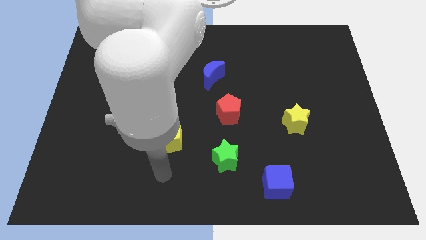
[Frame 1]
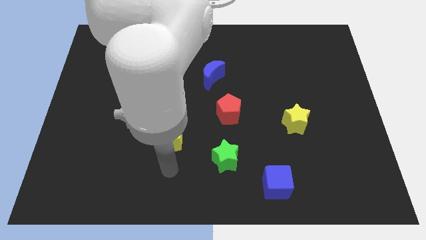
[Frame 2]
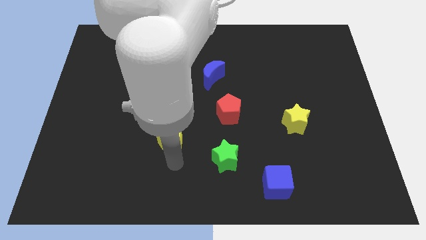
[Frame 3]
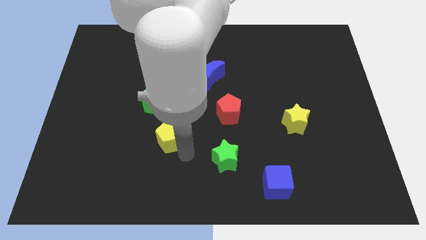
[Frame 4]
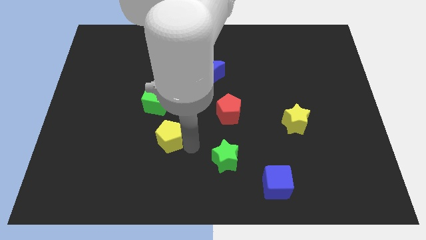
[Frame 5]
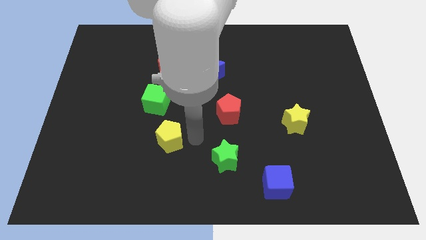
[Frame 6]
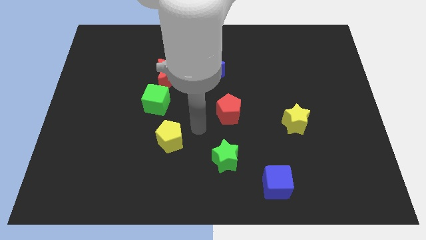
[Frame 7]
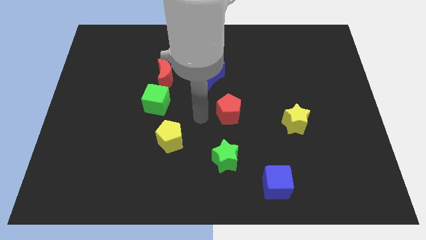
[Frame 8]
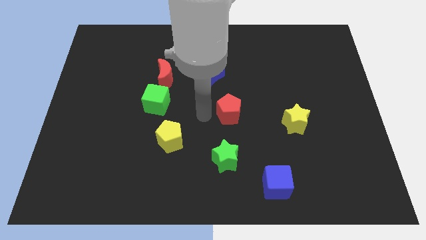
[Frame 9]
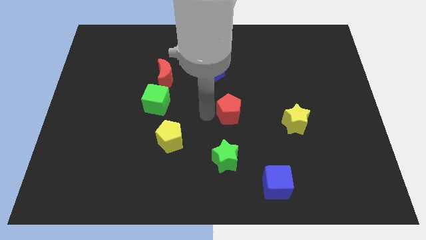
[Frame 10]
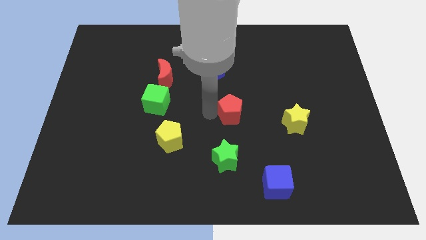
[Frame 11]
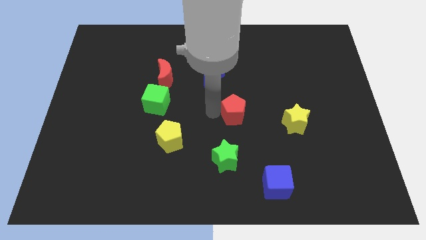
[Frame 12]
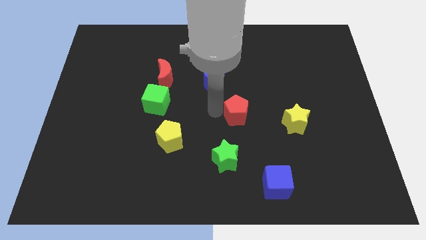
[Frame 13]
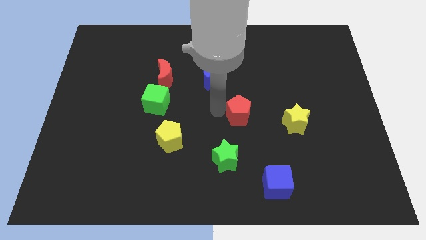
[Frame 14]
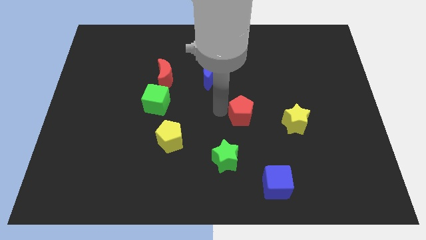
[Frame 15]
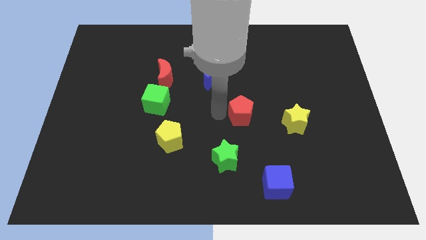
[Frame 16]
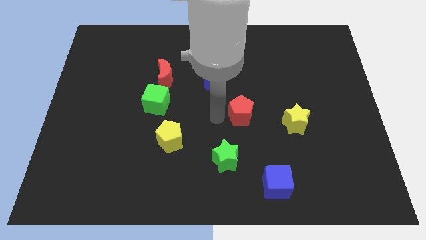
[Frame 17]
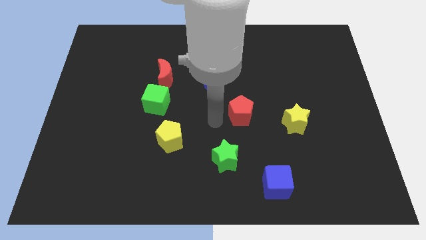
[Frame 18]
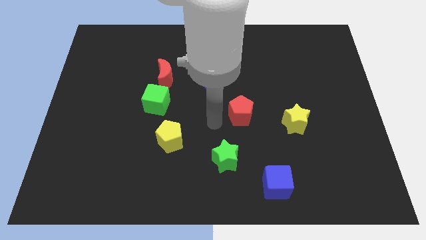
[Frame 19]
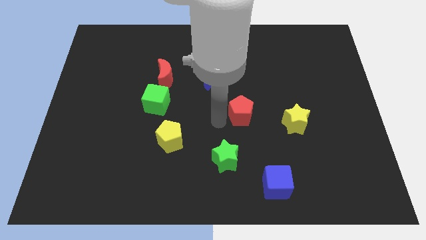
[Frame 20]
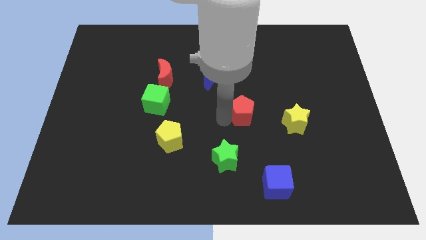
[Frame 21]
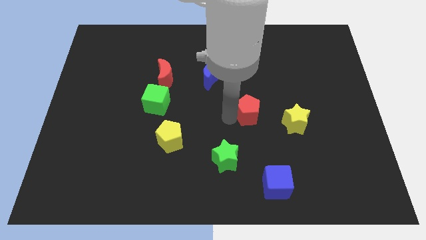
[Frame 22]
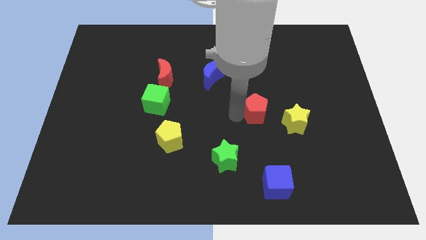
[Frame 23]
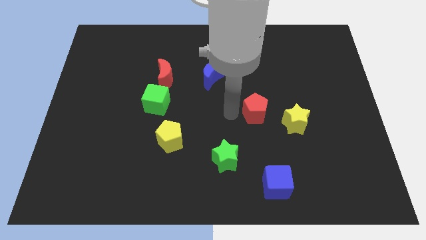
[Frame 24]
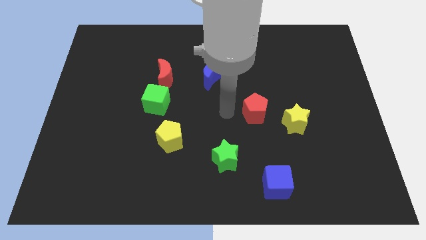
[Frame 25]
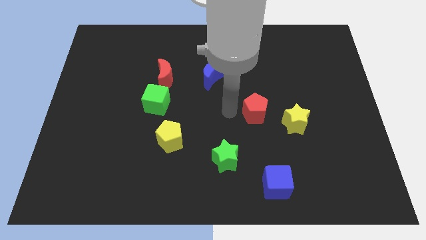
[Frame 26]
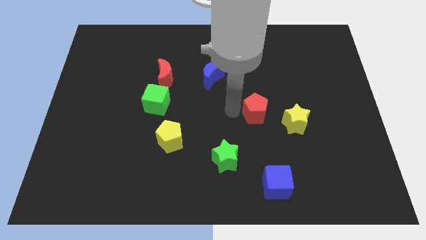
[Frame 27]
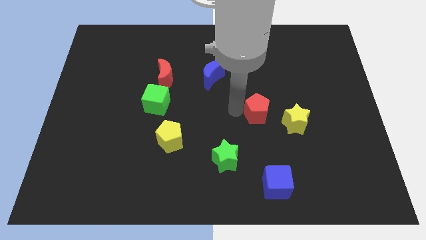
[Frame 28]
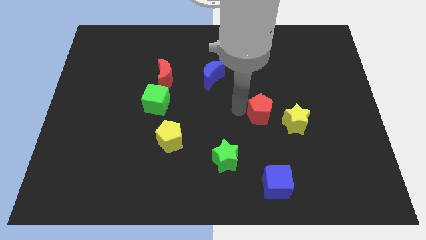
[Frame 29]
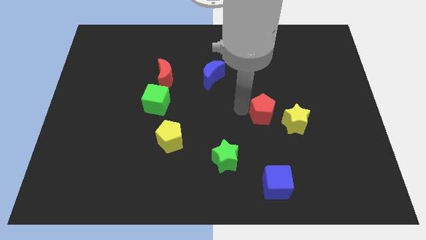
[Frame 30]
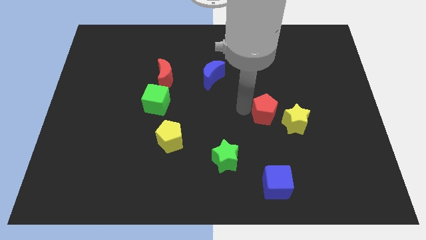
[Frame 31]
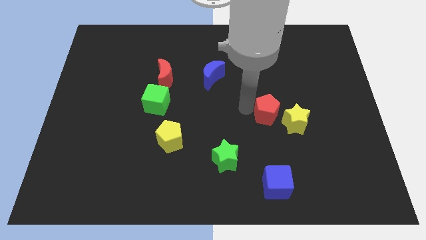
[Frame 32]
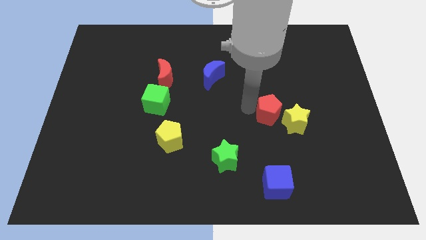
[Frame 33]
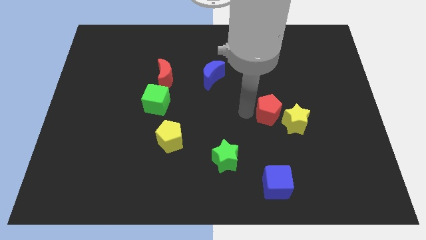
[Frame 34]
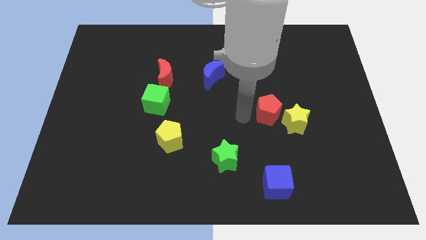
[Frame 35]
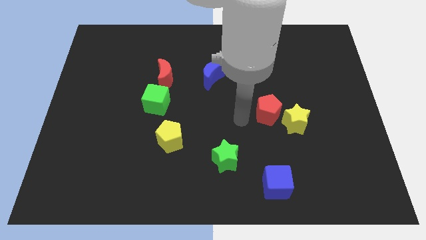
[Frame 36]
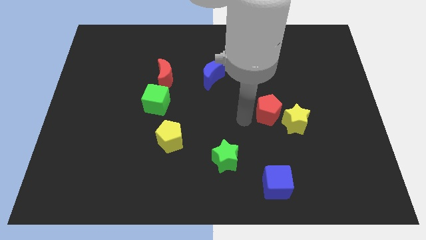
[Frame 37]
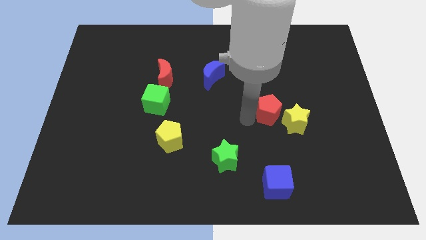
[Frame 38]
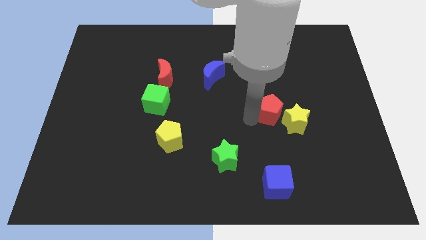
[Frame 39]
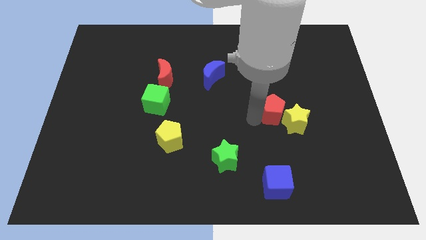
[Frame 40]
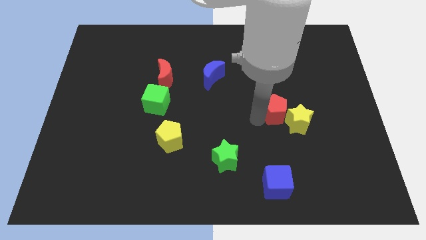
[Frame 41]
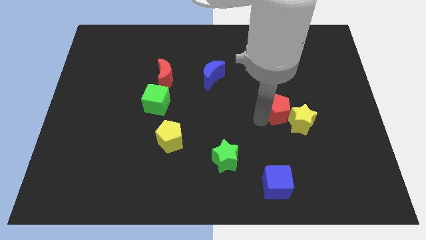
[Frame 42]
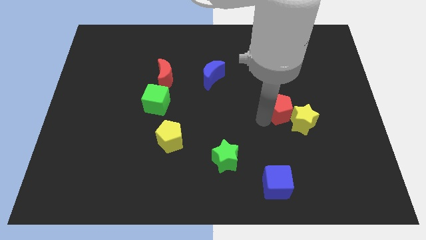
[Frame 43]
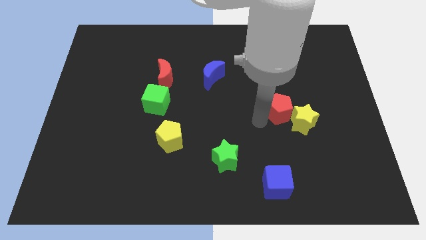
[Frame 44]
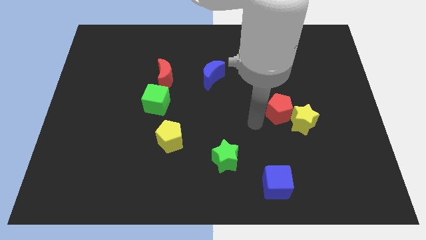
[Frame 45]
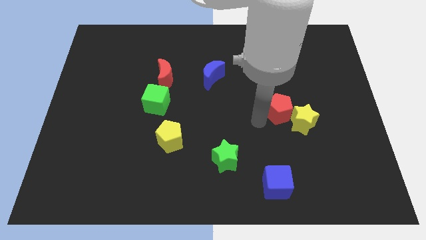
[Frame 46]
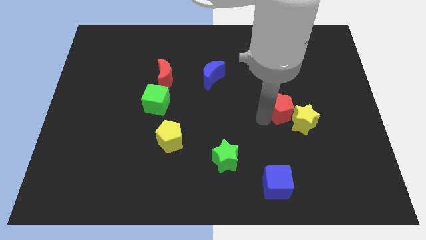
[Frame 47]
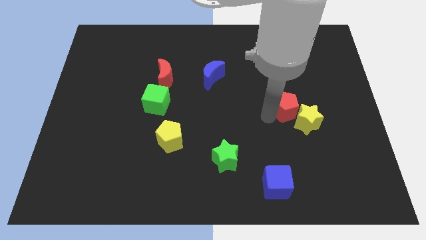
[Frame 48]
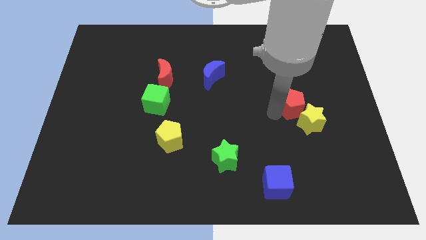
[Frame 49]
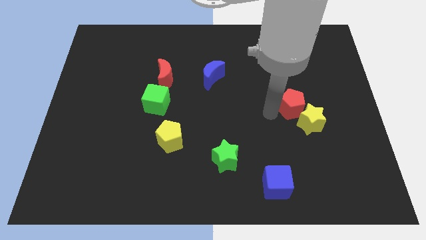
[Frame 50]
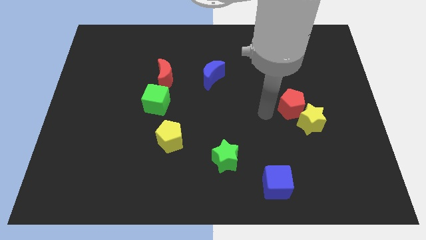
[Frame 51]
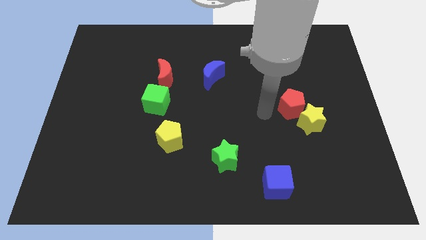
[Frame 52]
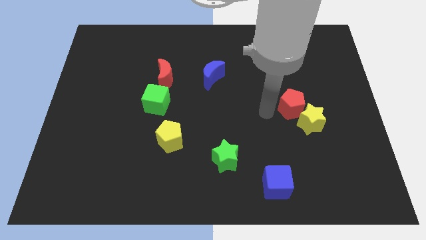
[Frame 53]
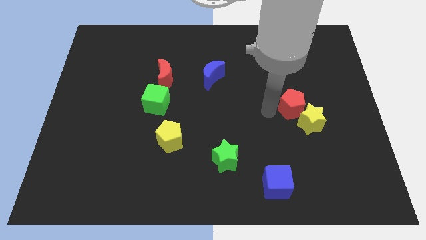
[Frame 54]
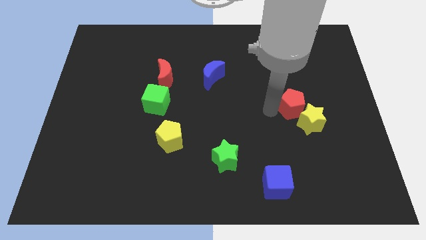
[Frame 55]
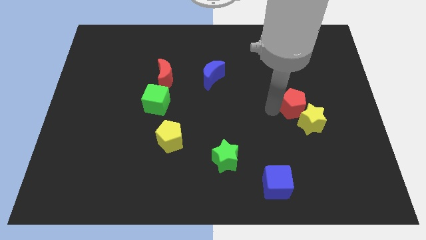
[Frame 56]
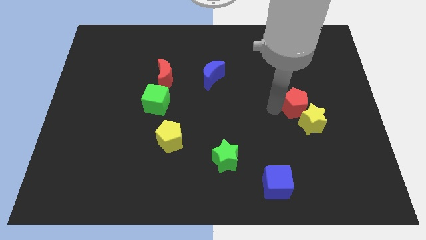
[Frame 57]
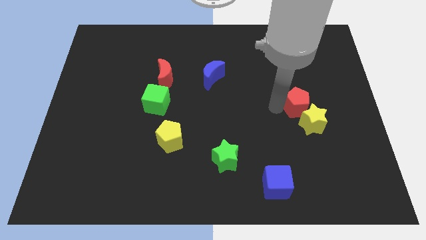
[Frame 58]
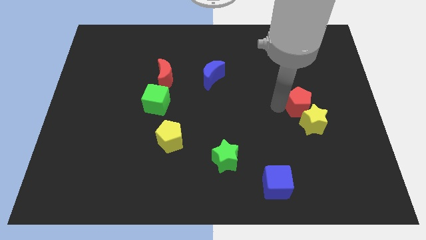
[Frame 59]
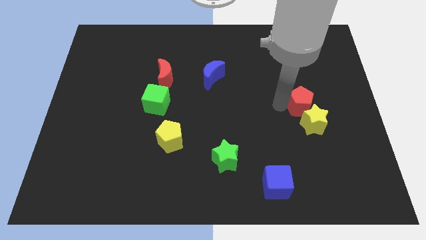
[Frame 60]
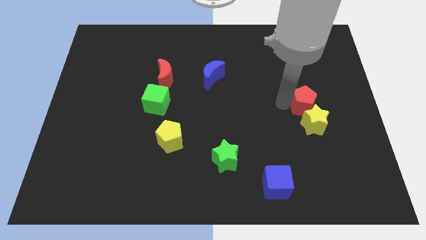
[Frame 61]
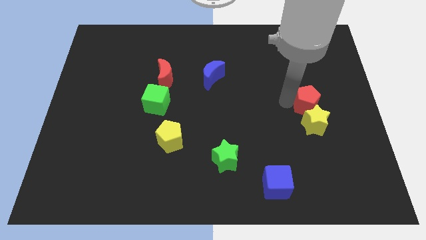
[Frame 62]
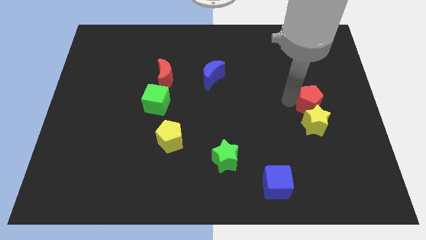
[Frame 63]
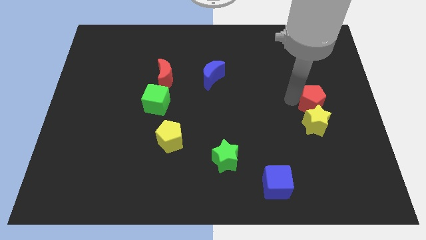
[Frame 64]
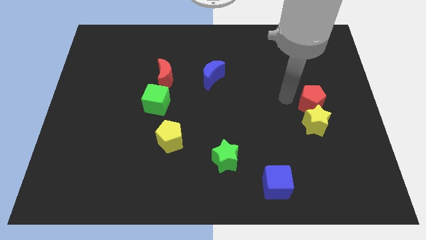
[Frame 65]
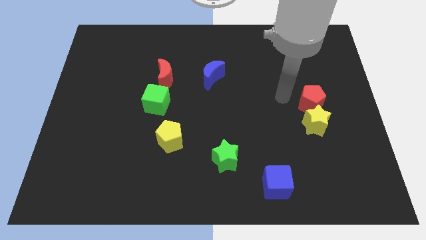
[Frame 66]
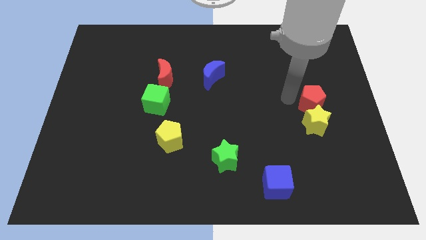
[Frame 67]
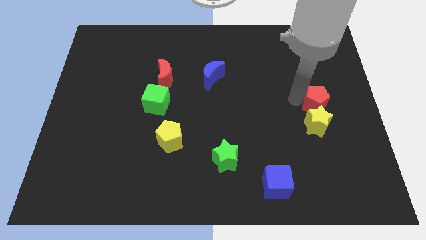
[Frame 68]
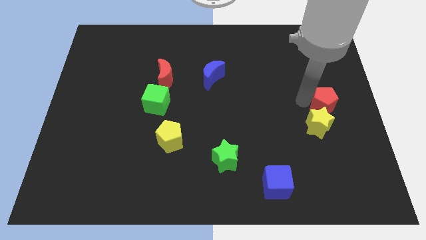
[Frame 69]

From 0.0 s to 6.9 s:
move the red pentagon to the right side
